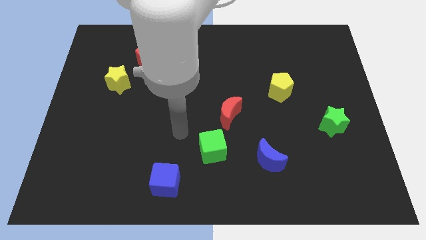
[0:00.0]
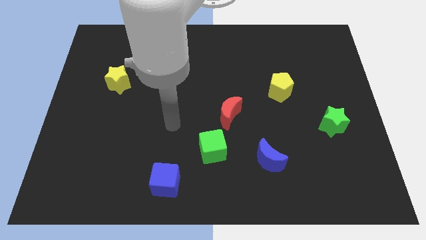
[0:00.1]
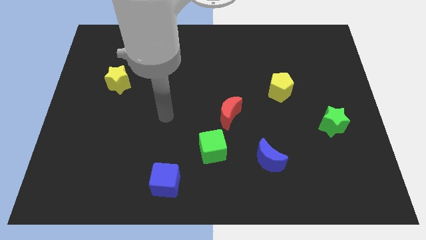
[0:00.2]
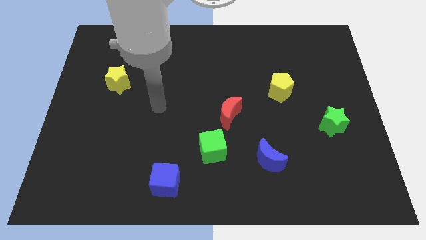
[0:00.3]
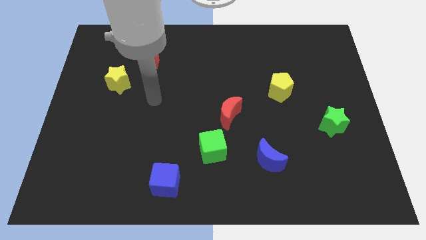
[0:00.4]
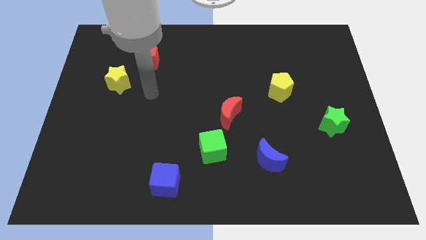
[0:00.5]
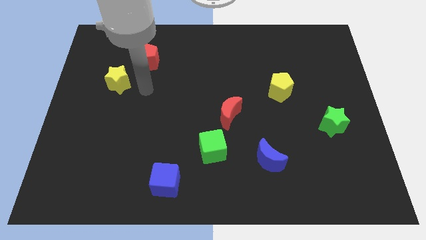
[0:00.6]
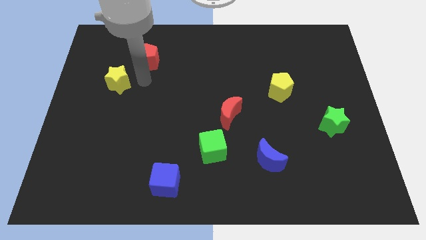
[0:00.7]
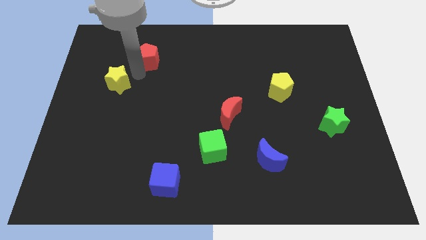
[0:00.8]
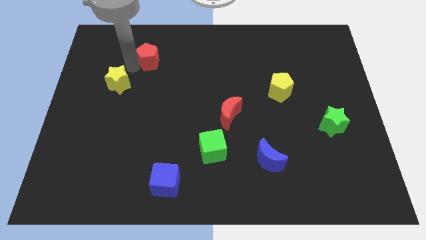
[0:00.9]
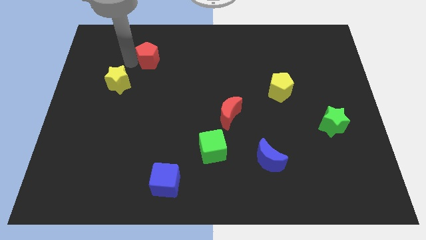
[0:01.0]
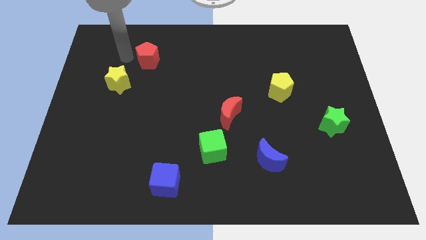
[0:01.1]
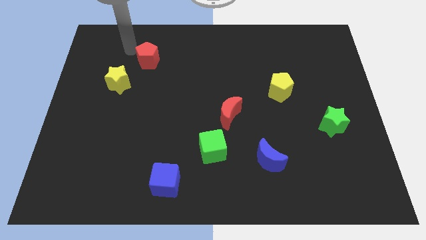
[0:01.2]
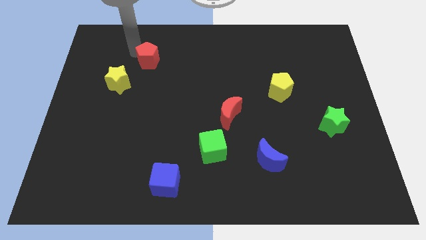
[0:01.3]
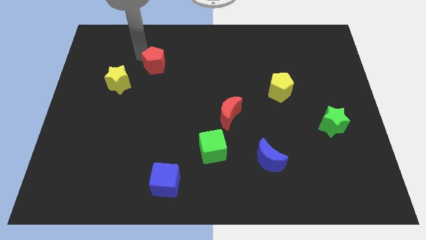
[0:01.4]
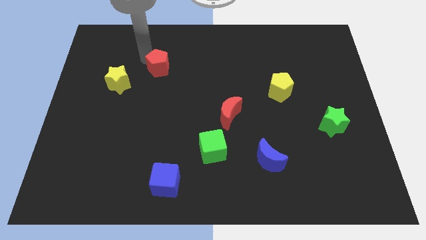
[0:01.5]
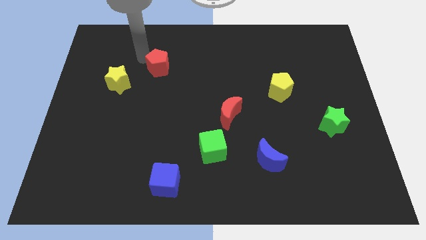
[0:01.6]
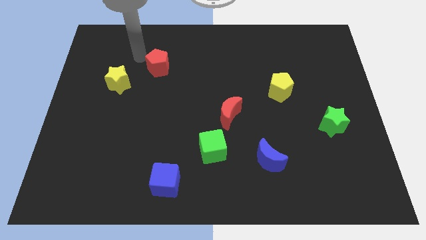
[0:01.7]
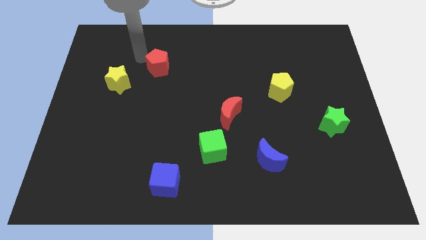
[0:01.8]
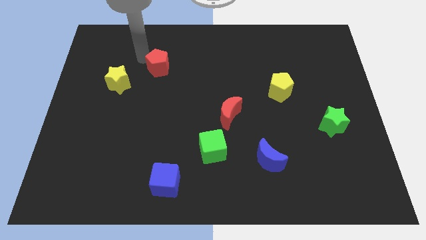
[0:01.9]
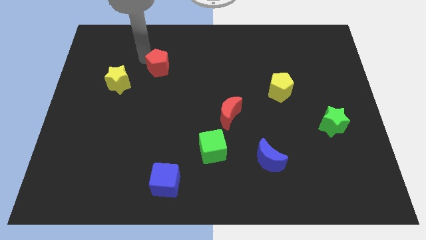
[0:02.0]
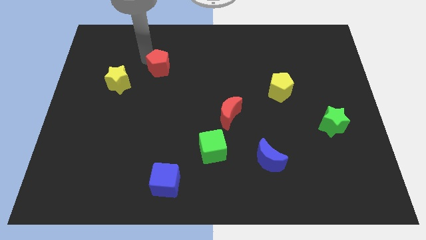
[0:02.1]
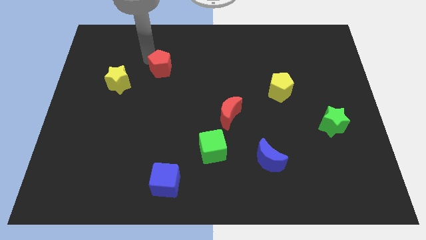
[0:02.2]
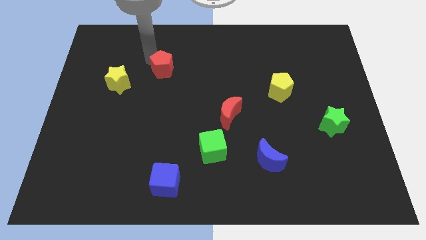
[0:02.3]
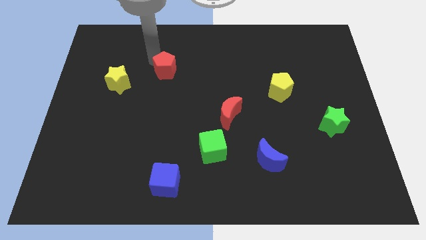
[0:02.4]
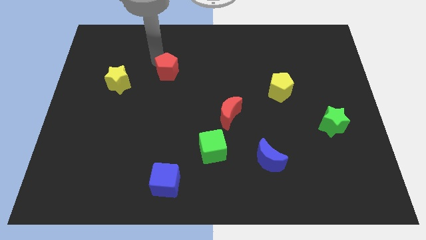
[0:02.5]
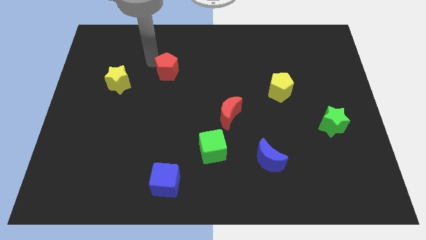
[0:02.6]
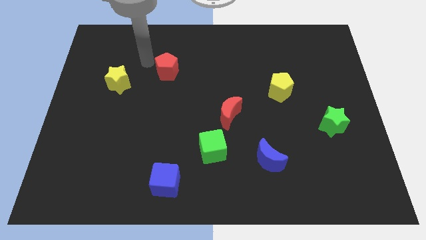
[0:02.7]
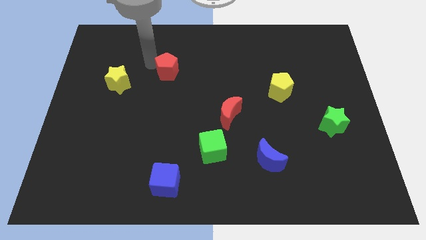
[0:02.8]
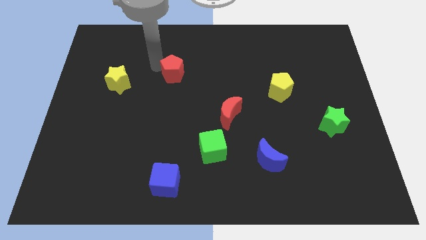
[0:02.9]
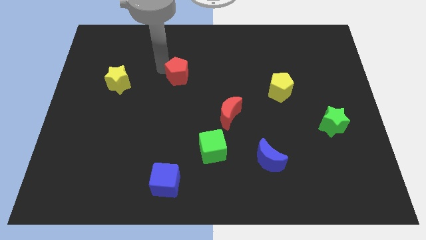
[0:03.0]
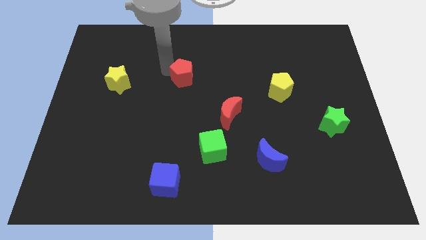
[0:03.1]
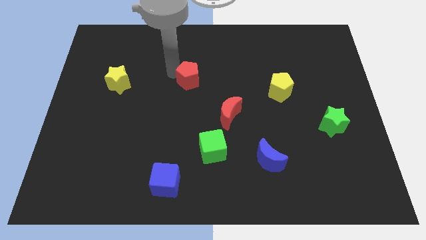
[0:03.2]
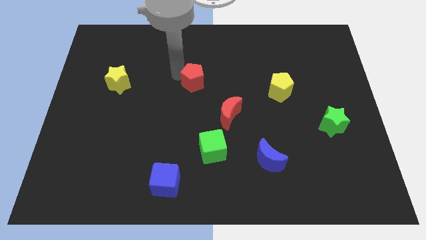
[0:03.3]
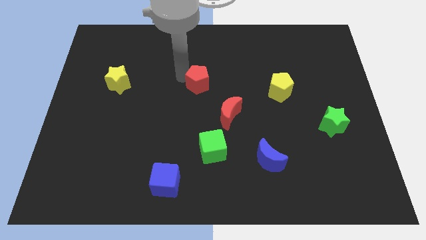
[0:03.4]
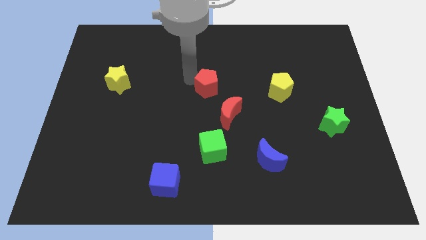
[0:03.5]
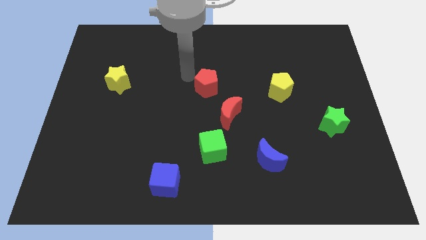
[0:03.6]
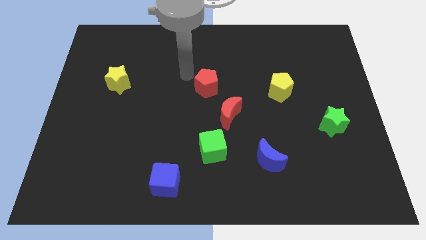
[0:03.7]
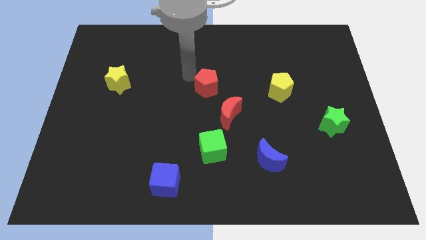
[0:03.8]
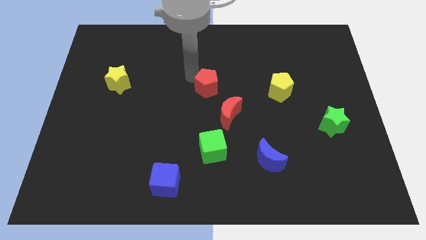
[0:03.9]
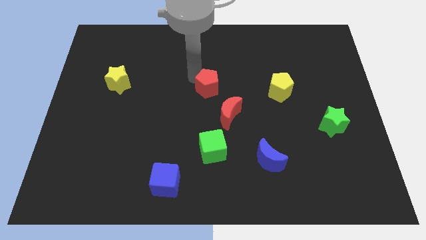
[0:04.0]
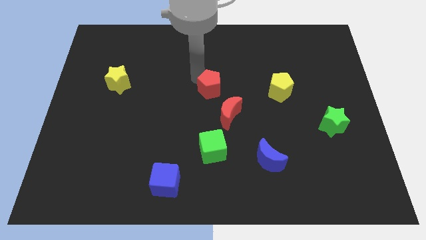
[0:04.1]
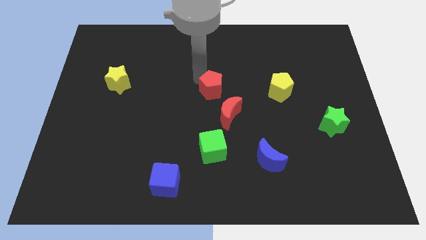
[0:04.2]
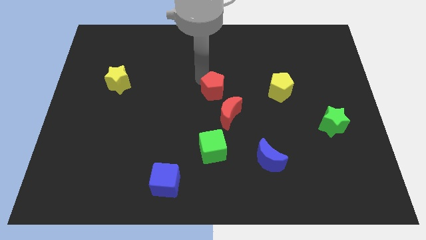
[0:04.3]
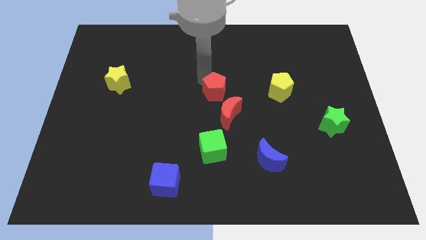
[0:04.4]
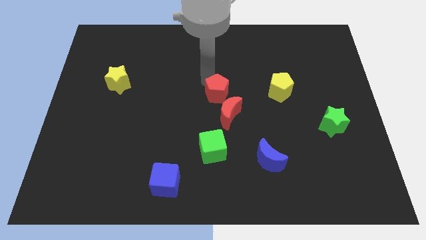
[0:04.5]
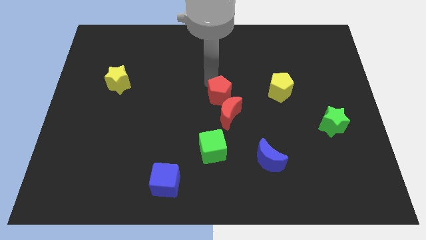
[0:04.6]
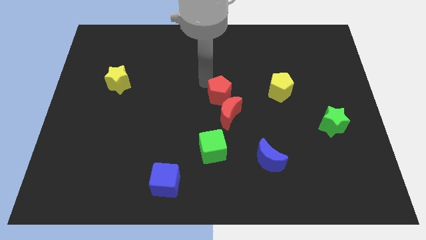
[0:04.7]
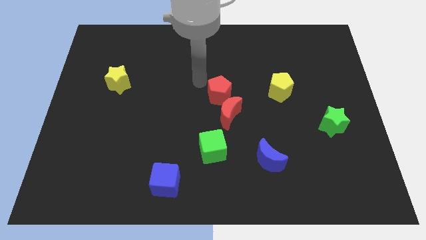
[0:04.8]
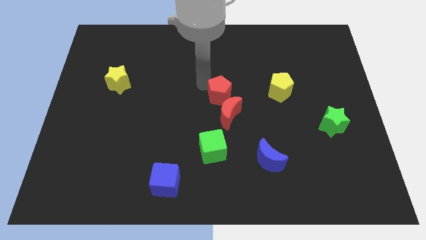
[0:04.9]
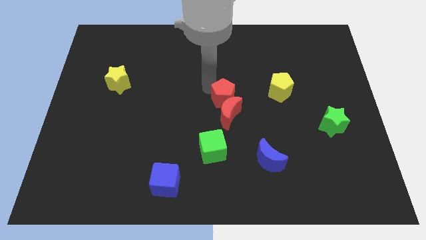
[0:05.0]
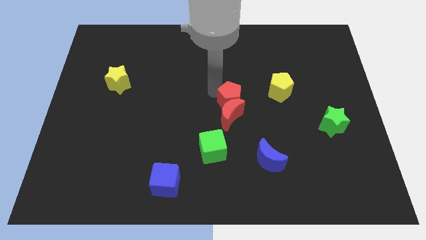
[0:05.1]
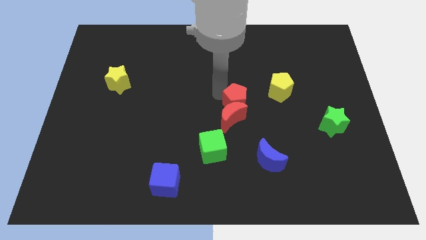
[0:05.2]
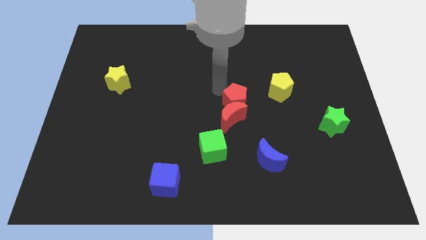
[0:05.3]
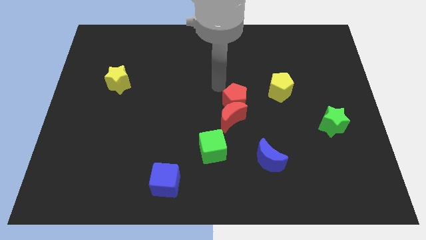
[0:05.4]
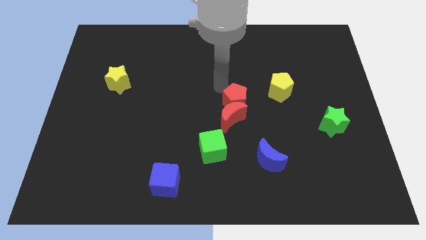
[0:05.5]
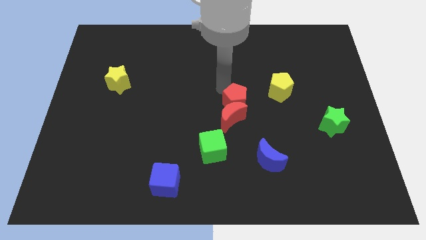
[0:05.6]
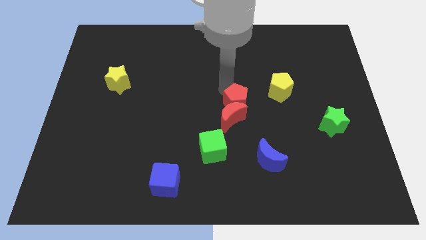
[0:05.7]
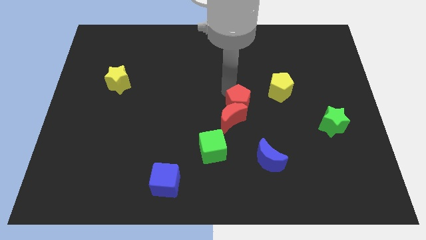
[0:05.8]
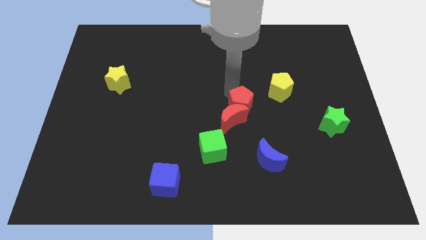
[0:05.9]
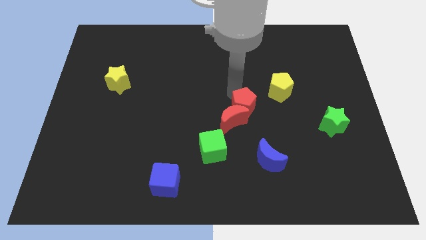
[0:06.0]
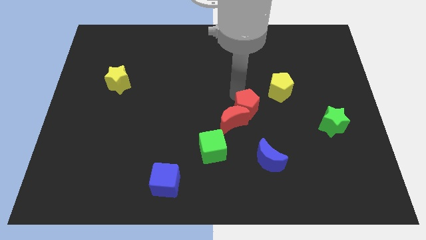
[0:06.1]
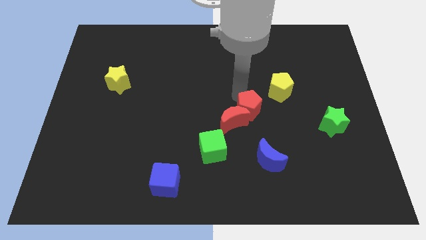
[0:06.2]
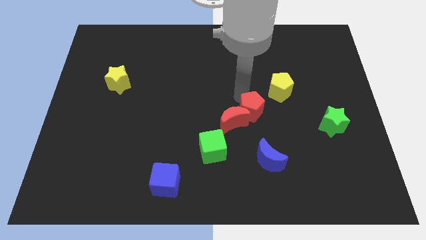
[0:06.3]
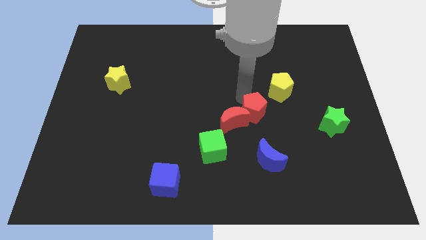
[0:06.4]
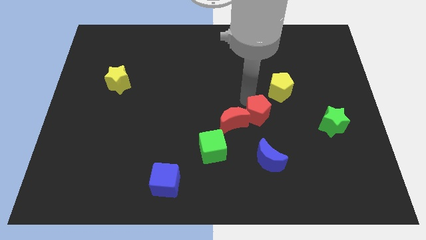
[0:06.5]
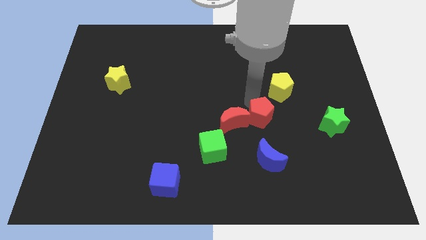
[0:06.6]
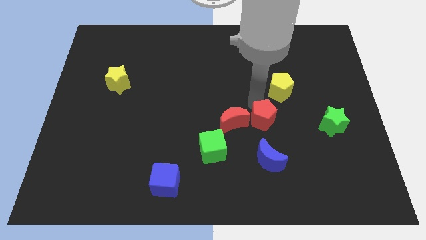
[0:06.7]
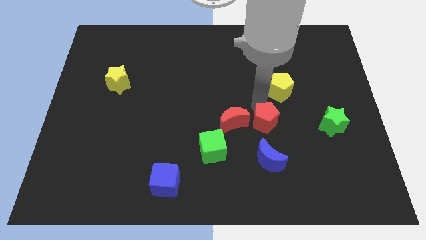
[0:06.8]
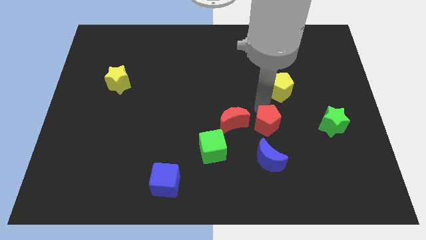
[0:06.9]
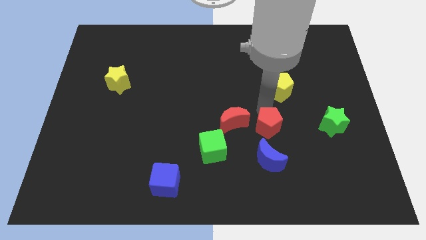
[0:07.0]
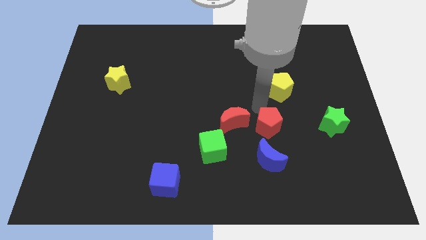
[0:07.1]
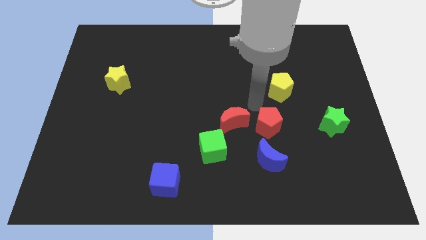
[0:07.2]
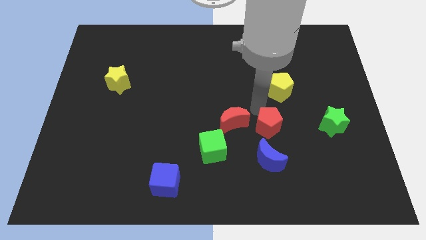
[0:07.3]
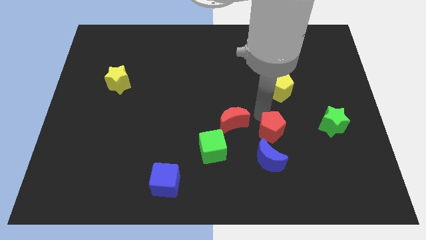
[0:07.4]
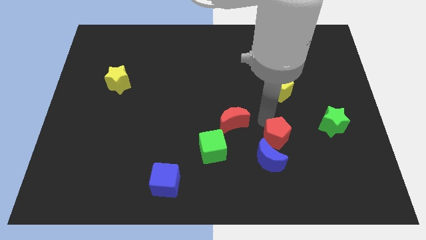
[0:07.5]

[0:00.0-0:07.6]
push the red pentagon to the right side of the green cube
